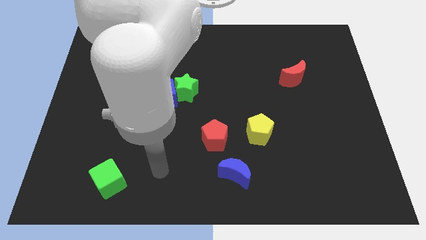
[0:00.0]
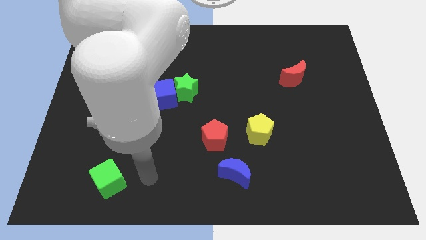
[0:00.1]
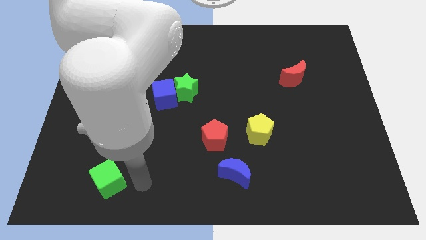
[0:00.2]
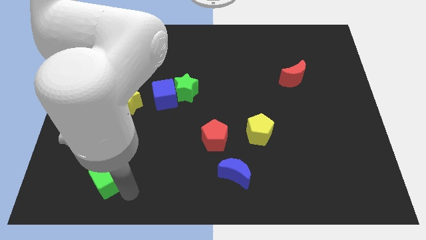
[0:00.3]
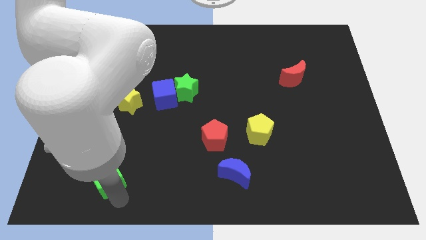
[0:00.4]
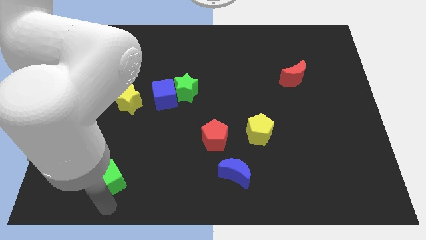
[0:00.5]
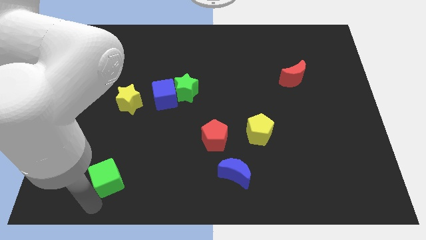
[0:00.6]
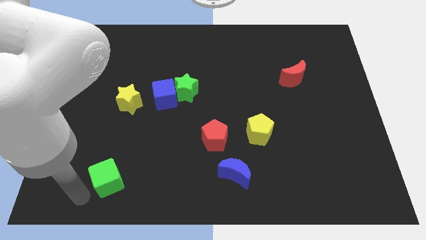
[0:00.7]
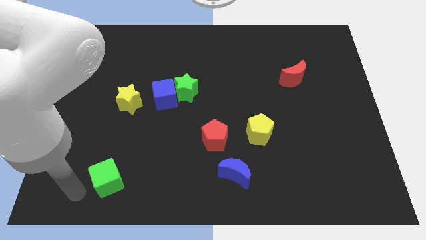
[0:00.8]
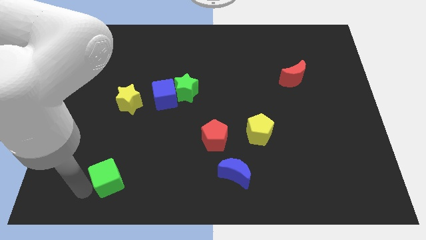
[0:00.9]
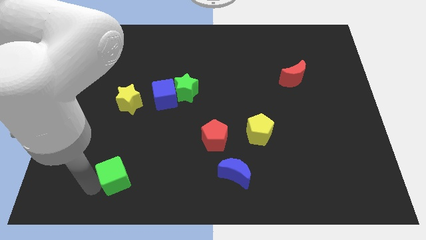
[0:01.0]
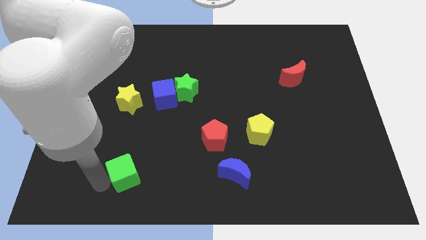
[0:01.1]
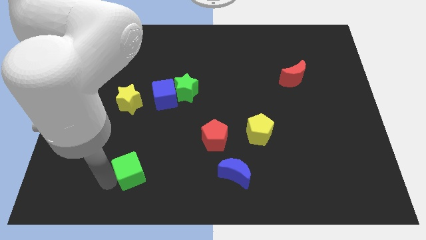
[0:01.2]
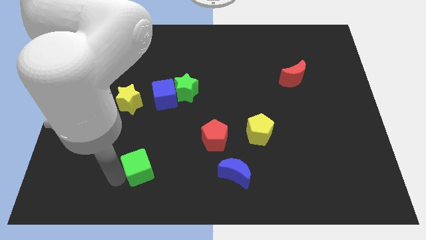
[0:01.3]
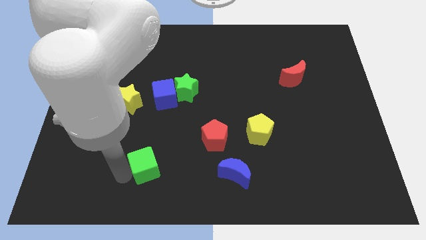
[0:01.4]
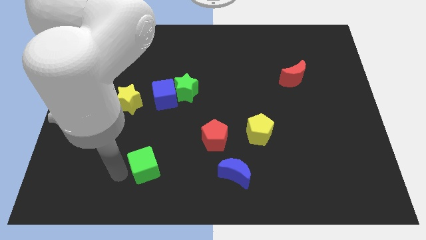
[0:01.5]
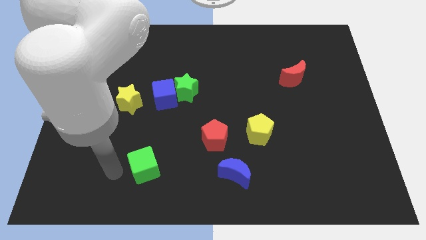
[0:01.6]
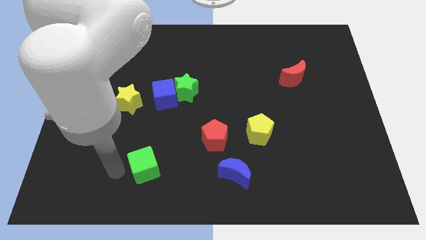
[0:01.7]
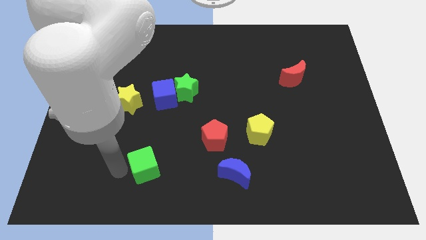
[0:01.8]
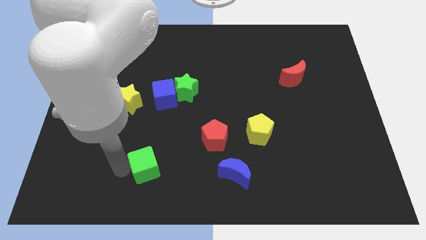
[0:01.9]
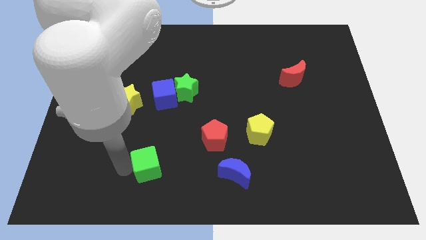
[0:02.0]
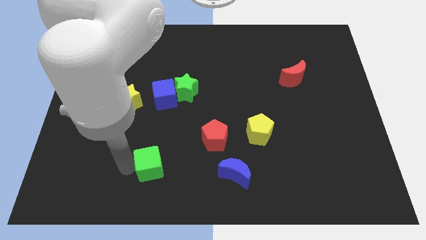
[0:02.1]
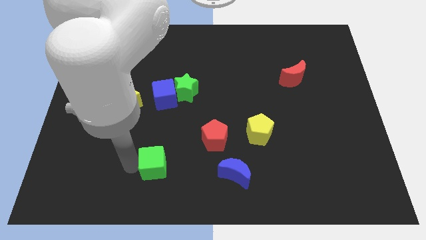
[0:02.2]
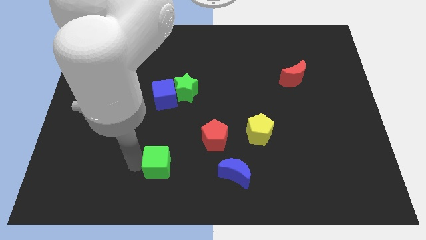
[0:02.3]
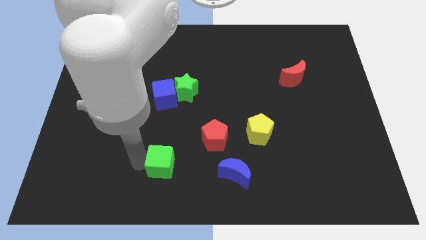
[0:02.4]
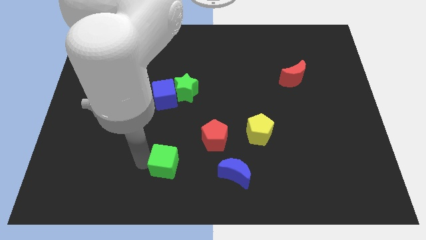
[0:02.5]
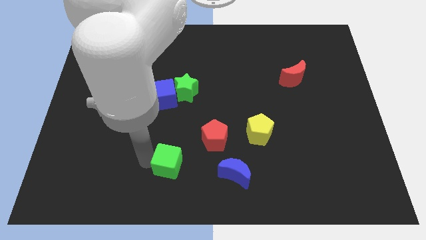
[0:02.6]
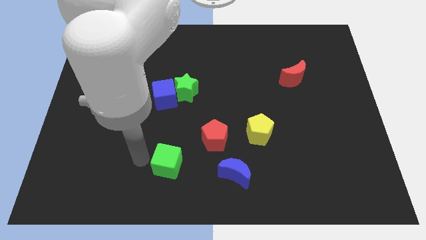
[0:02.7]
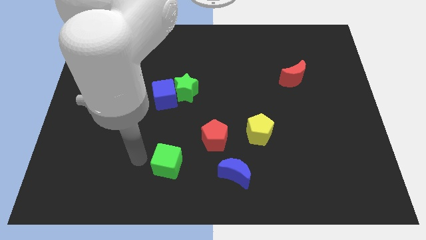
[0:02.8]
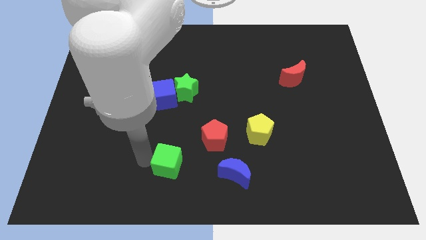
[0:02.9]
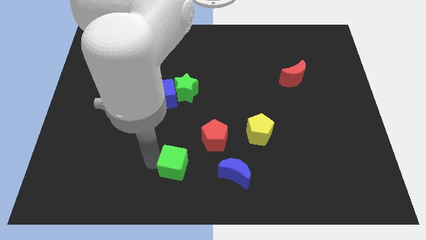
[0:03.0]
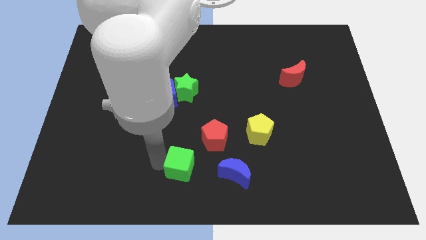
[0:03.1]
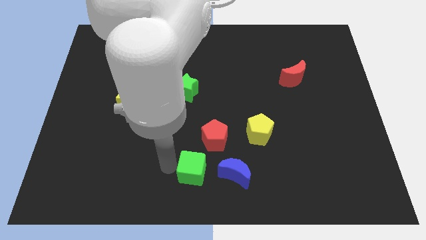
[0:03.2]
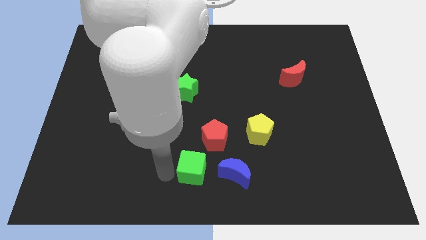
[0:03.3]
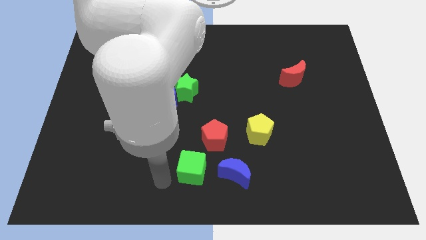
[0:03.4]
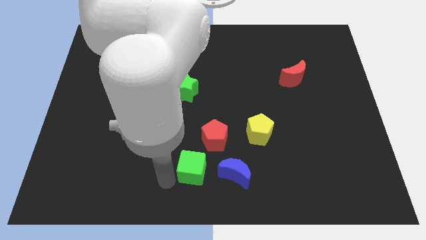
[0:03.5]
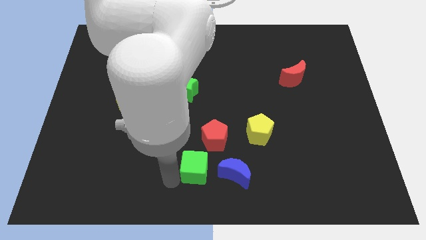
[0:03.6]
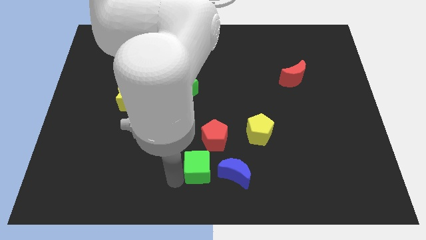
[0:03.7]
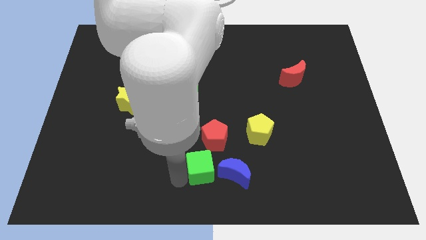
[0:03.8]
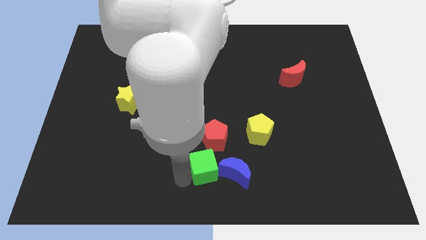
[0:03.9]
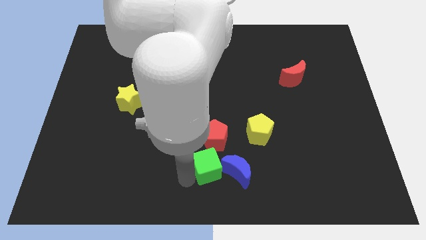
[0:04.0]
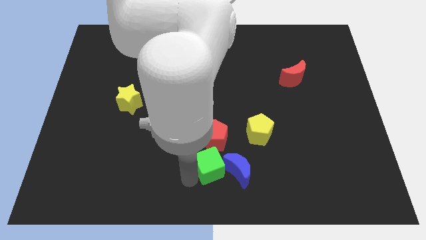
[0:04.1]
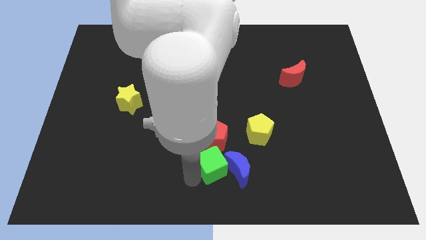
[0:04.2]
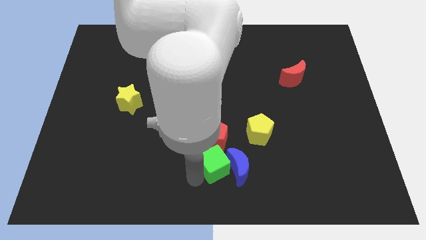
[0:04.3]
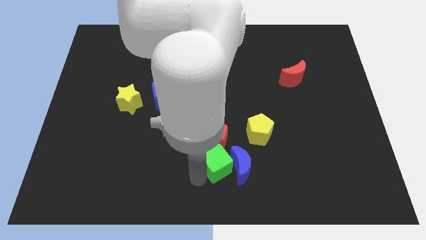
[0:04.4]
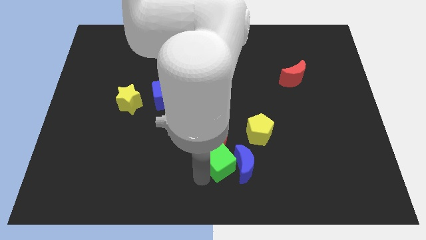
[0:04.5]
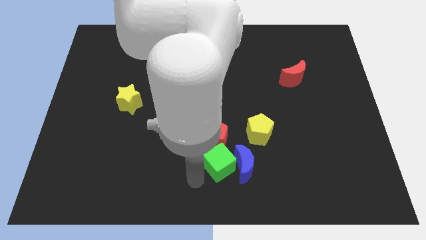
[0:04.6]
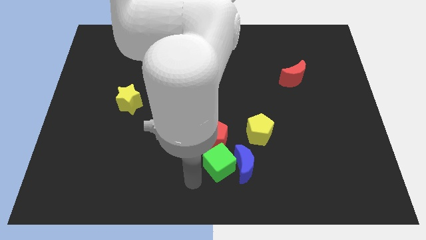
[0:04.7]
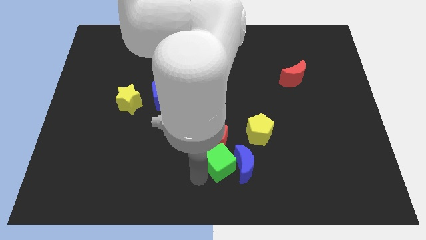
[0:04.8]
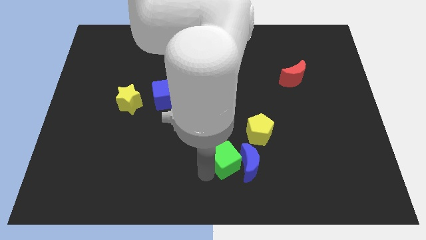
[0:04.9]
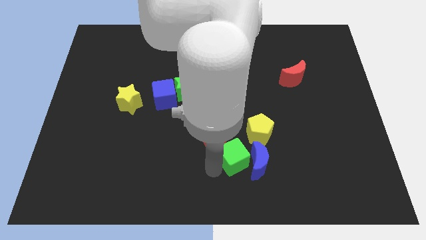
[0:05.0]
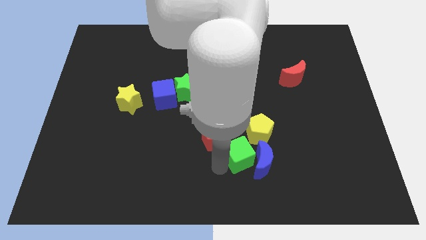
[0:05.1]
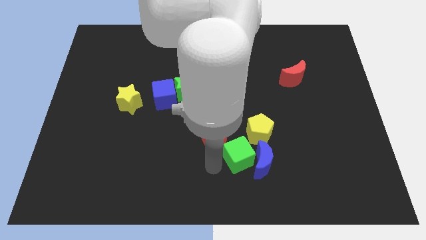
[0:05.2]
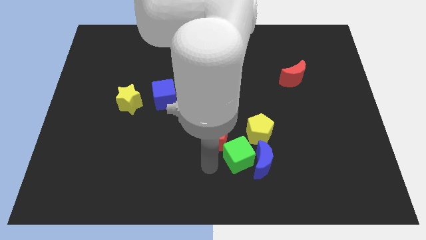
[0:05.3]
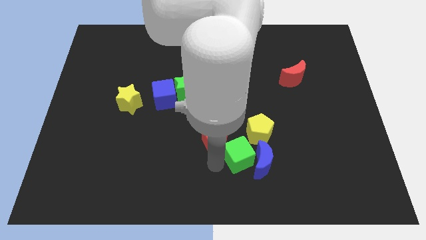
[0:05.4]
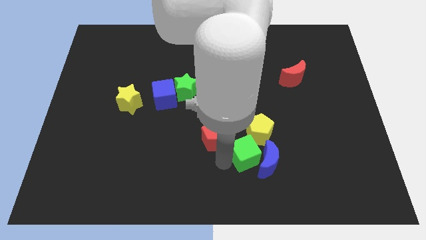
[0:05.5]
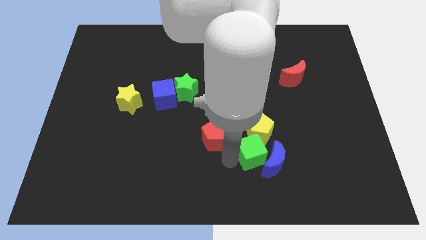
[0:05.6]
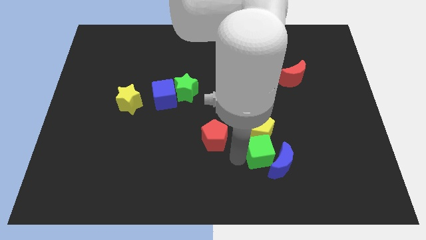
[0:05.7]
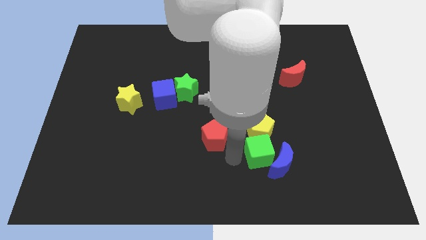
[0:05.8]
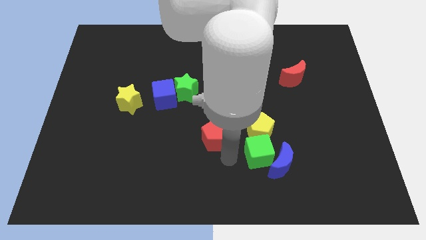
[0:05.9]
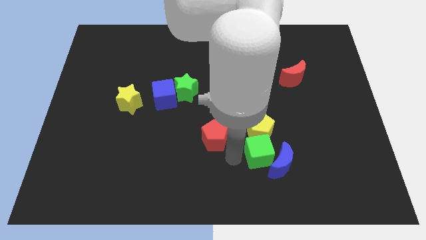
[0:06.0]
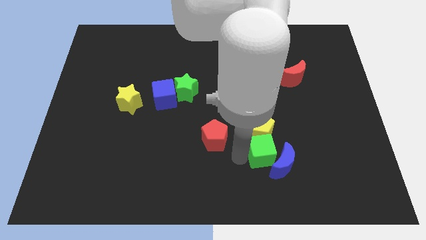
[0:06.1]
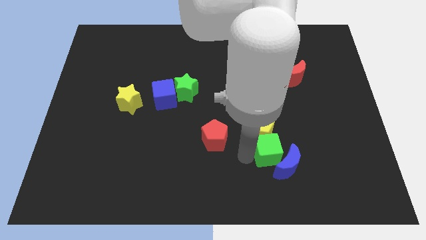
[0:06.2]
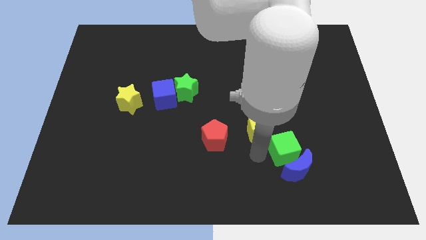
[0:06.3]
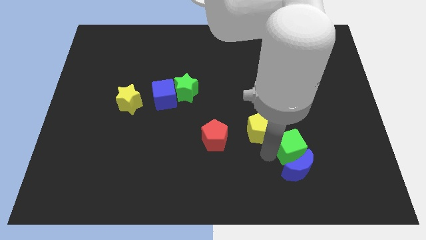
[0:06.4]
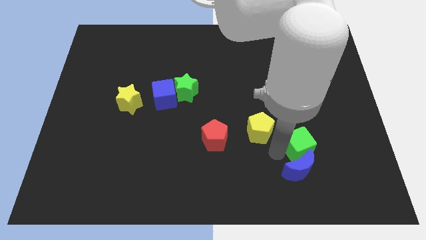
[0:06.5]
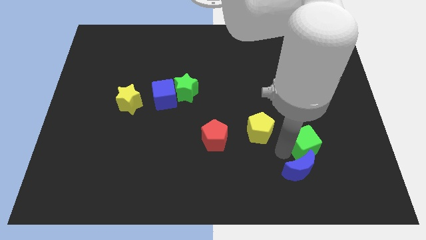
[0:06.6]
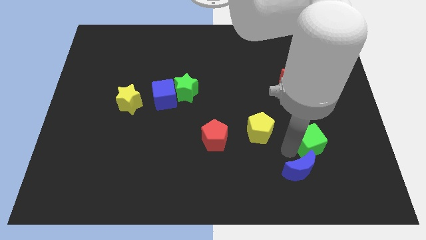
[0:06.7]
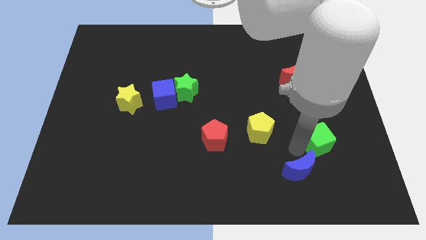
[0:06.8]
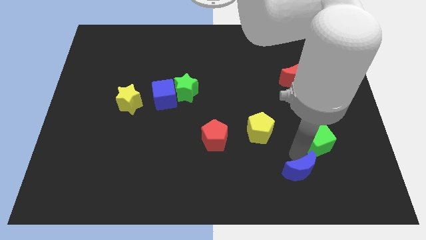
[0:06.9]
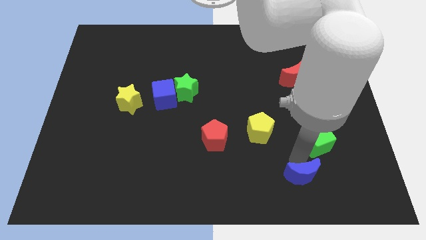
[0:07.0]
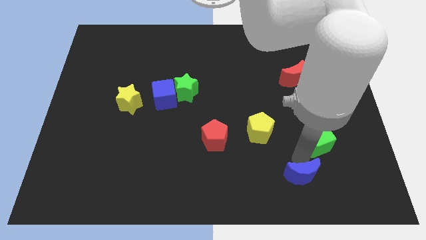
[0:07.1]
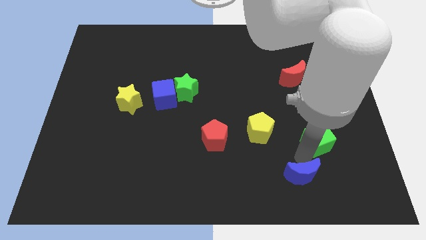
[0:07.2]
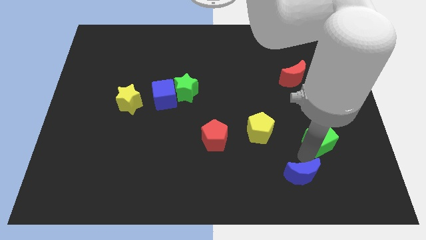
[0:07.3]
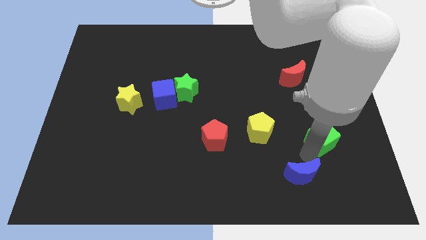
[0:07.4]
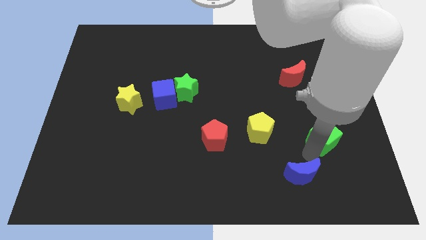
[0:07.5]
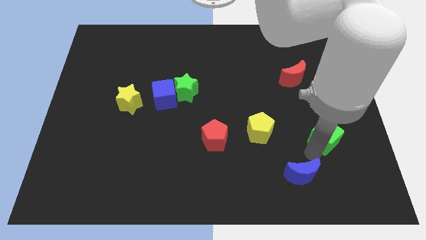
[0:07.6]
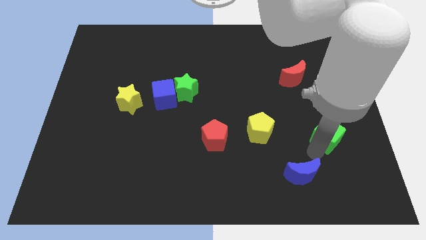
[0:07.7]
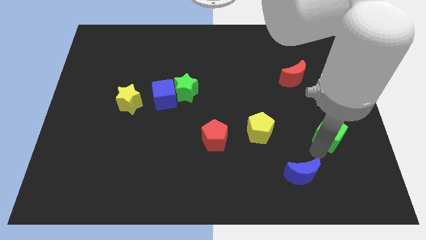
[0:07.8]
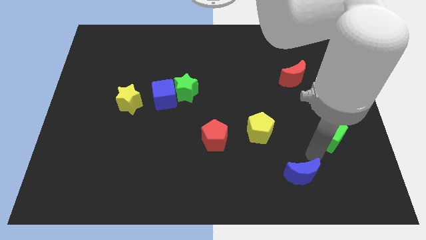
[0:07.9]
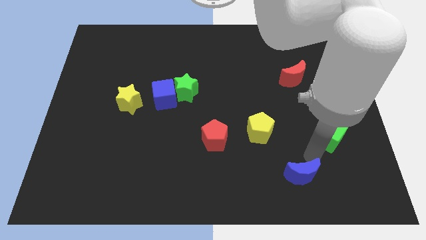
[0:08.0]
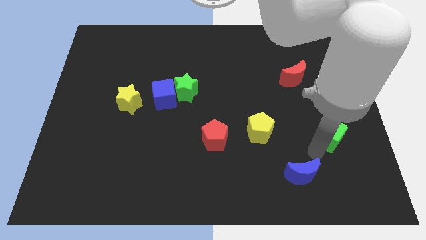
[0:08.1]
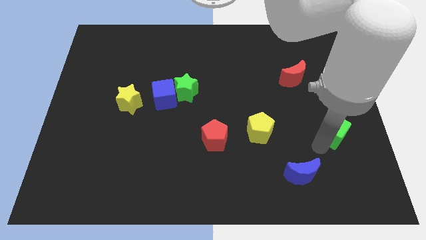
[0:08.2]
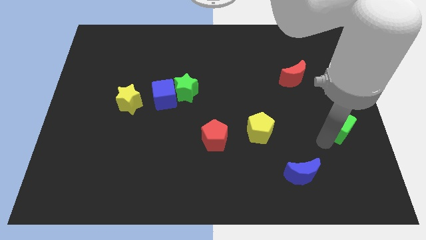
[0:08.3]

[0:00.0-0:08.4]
put the green cube to the right side
